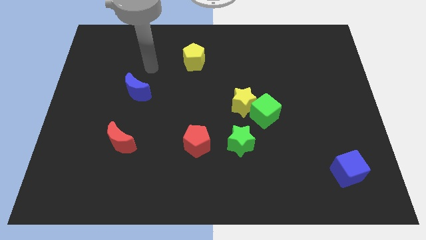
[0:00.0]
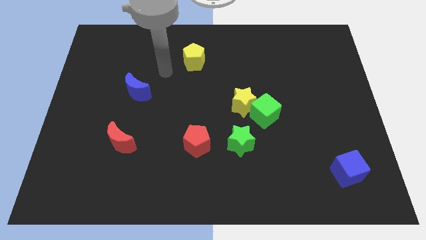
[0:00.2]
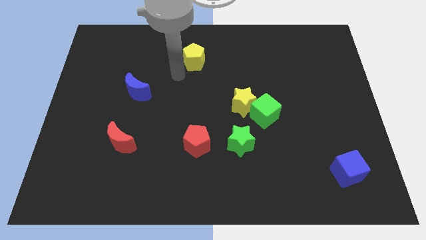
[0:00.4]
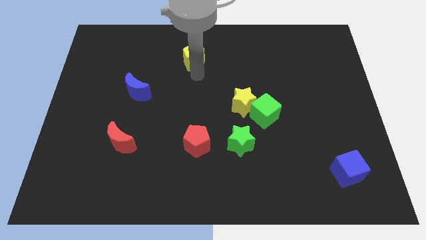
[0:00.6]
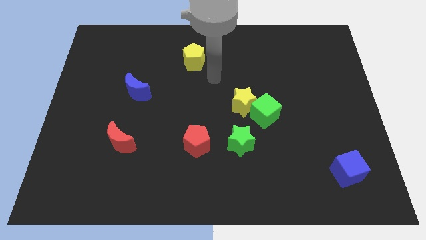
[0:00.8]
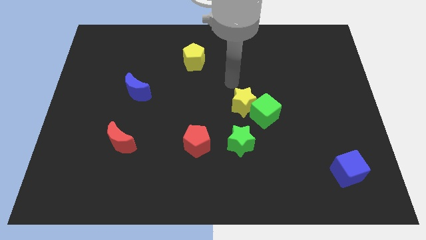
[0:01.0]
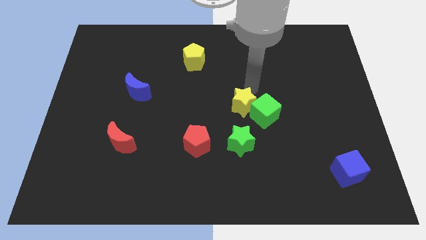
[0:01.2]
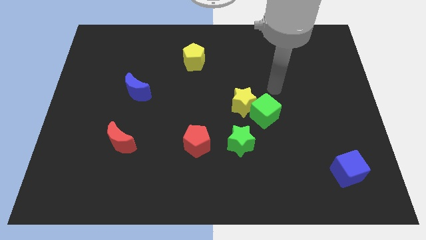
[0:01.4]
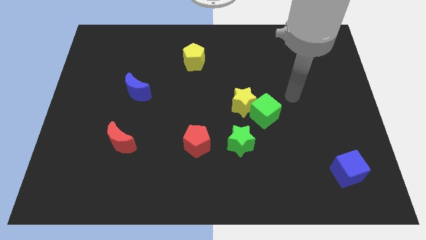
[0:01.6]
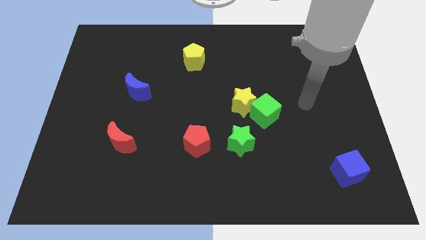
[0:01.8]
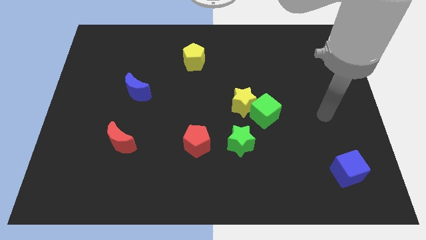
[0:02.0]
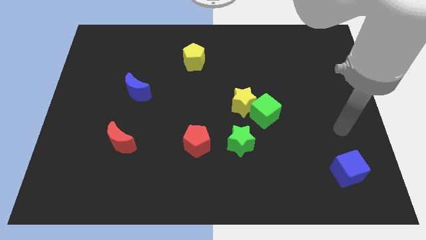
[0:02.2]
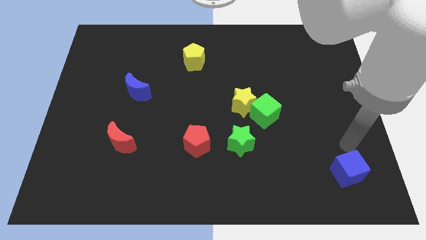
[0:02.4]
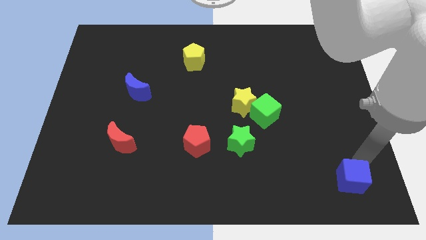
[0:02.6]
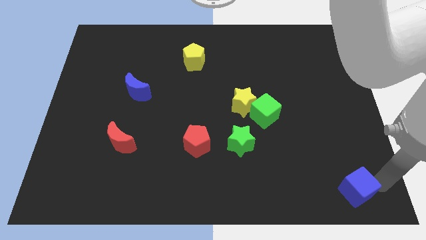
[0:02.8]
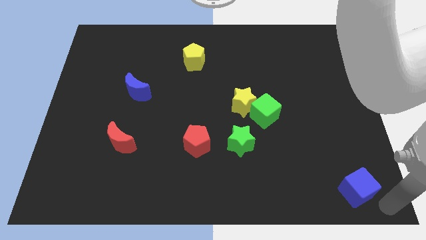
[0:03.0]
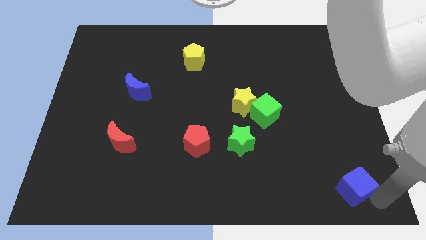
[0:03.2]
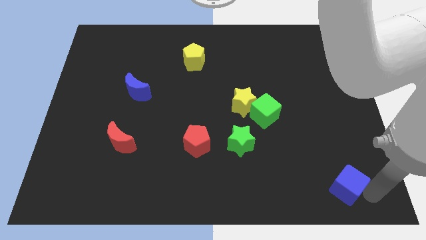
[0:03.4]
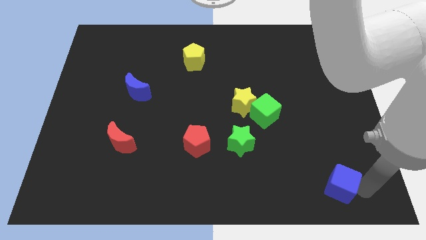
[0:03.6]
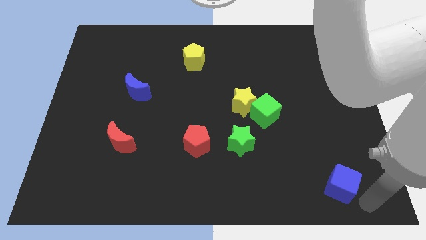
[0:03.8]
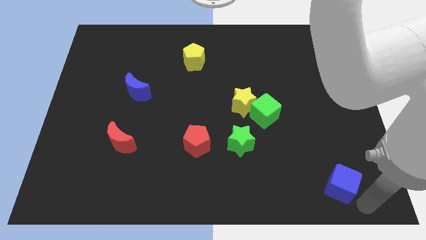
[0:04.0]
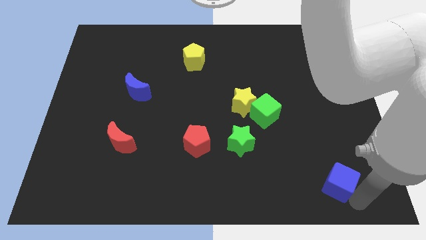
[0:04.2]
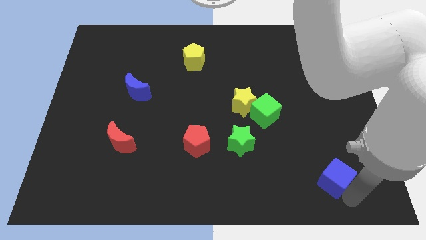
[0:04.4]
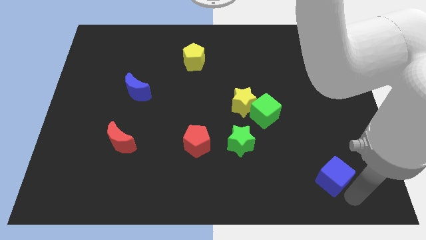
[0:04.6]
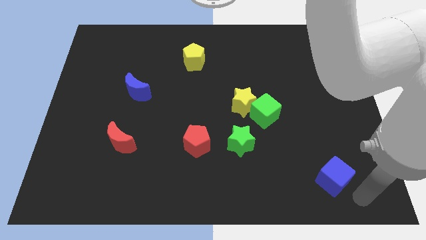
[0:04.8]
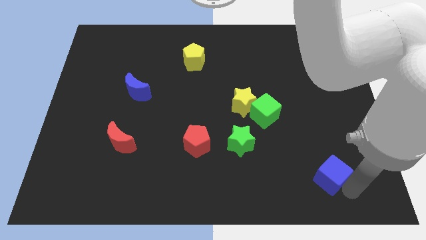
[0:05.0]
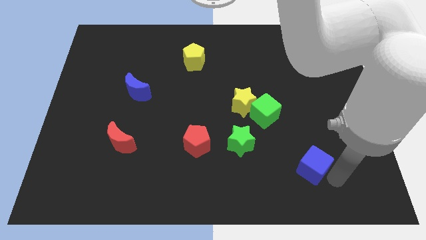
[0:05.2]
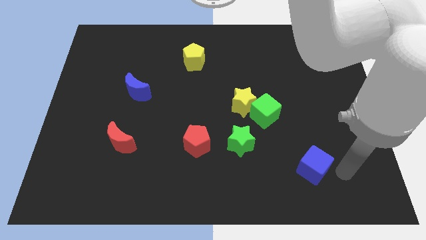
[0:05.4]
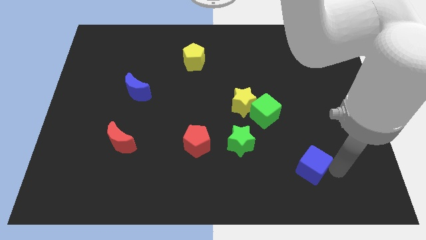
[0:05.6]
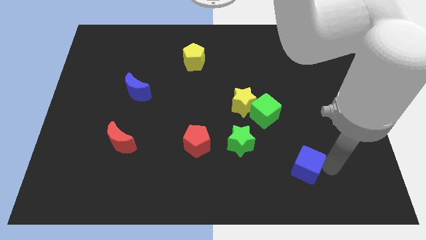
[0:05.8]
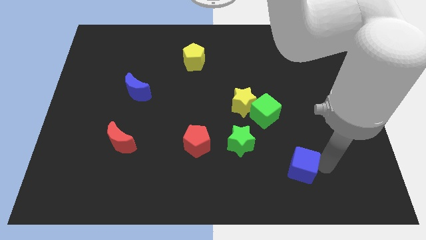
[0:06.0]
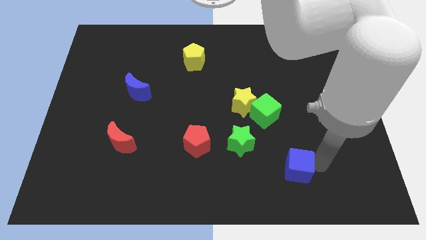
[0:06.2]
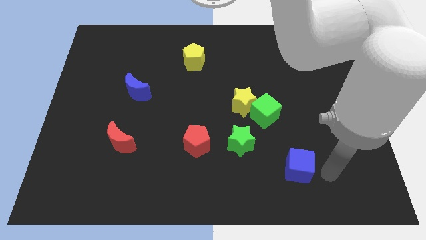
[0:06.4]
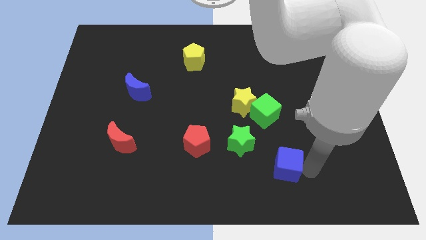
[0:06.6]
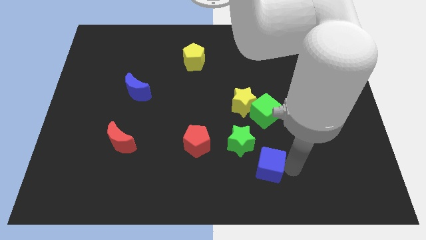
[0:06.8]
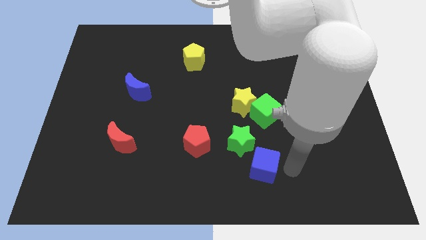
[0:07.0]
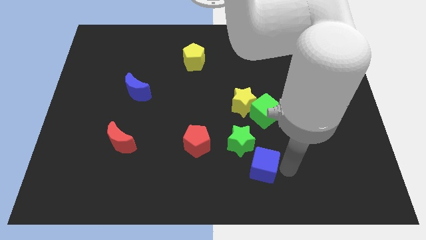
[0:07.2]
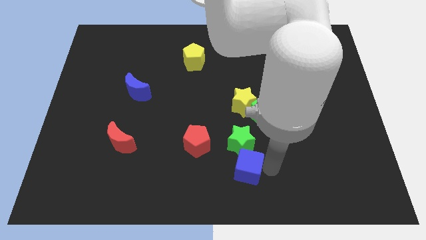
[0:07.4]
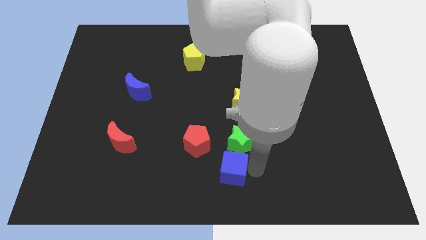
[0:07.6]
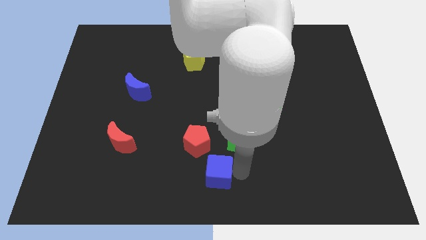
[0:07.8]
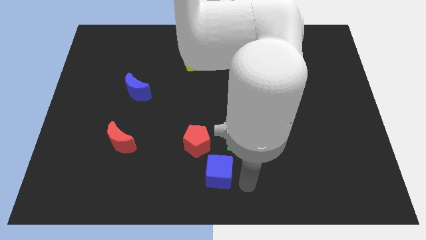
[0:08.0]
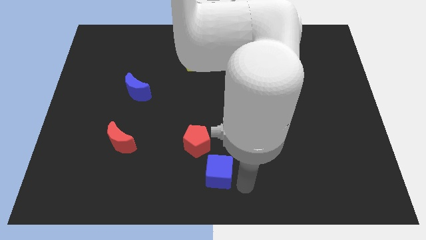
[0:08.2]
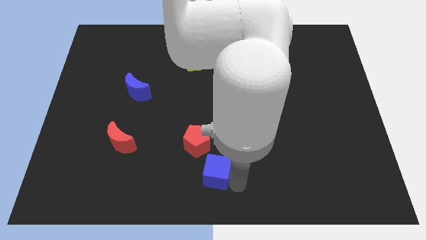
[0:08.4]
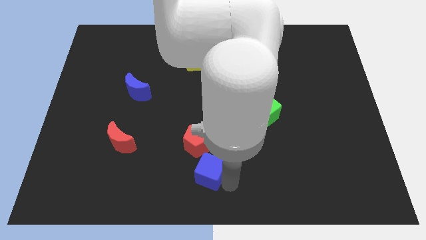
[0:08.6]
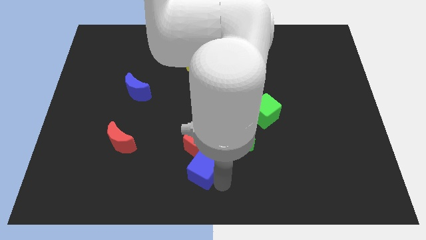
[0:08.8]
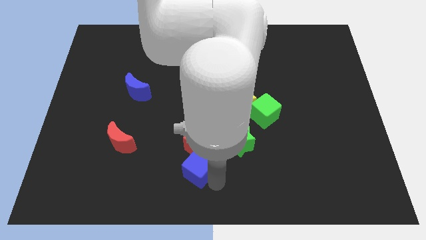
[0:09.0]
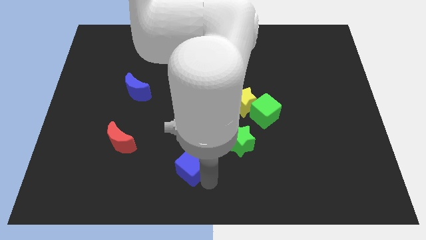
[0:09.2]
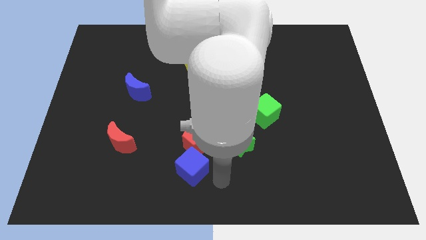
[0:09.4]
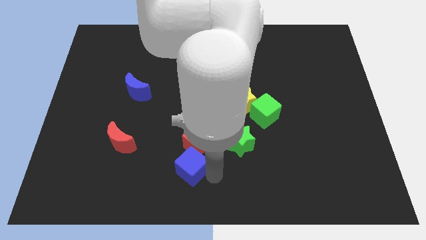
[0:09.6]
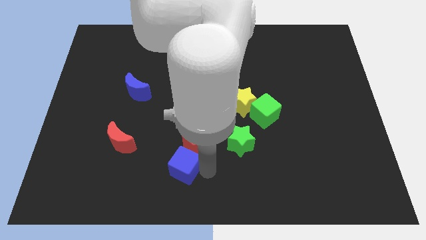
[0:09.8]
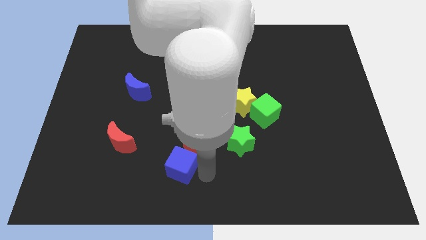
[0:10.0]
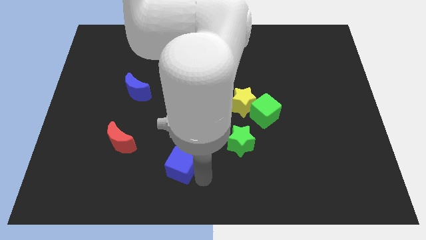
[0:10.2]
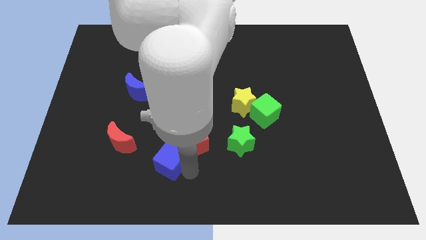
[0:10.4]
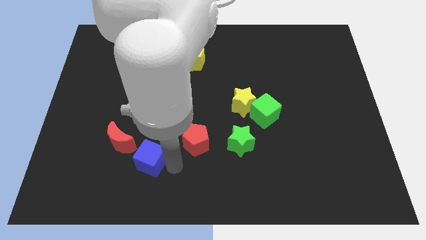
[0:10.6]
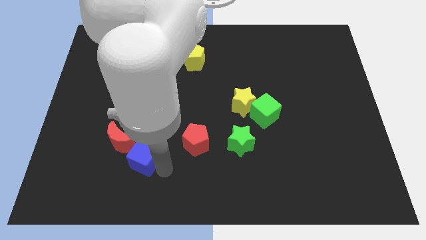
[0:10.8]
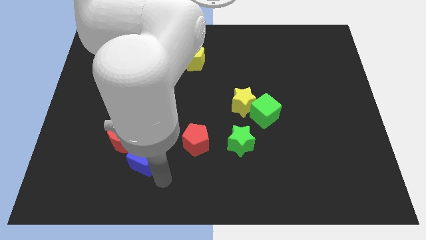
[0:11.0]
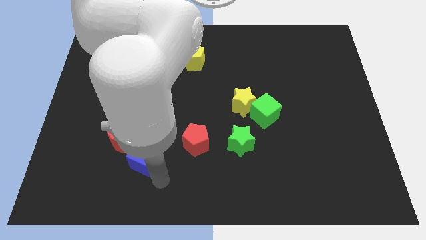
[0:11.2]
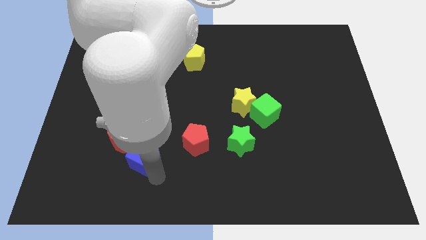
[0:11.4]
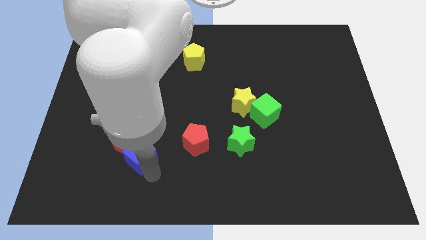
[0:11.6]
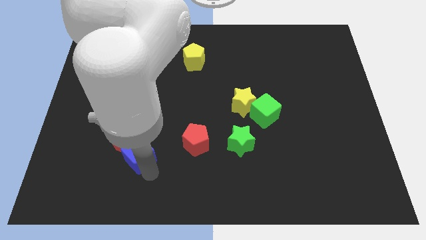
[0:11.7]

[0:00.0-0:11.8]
put the blue cube next to the red moon

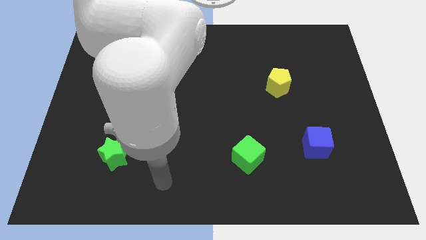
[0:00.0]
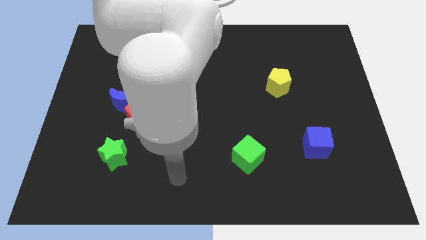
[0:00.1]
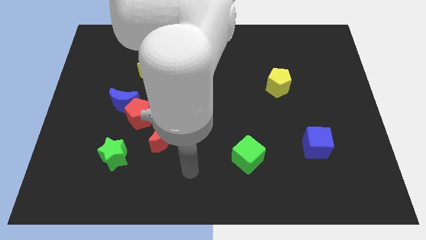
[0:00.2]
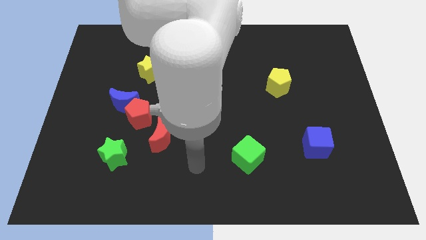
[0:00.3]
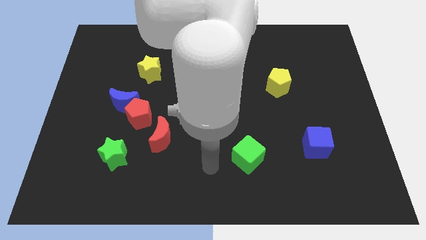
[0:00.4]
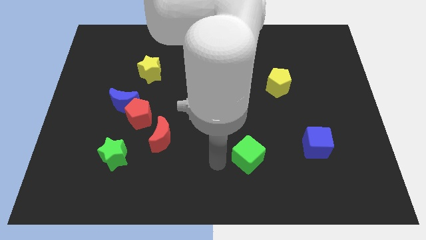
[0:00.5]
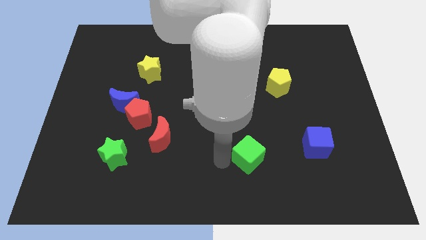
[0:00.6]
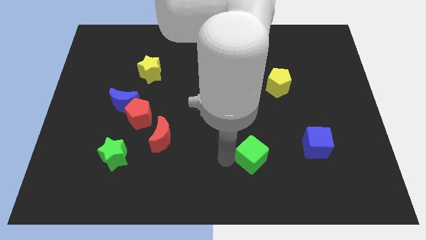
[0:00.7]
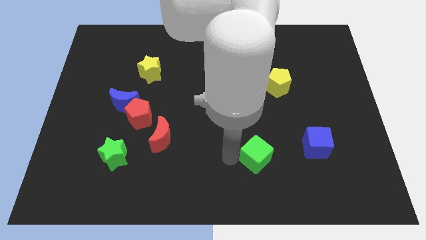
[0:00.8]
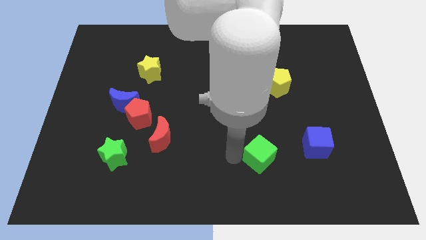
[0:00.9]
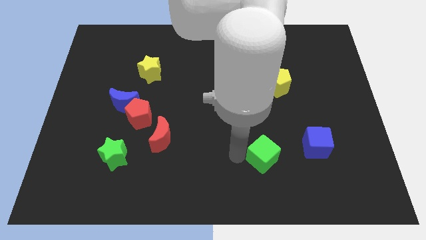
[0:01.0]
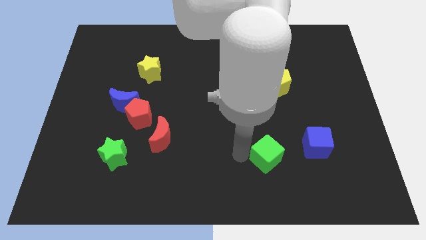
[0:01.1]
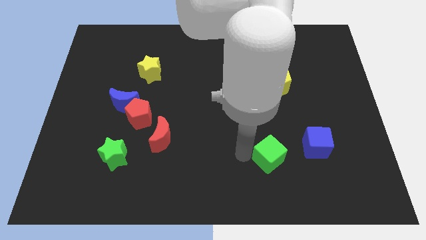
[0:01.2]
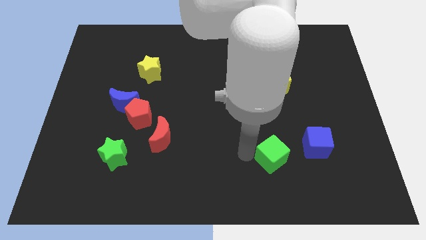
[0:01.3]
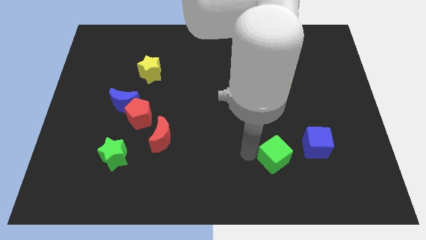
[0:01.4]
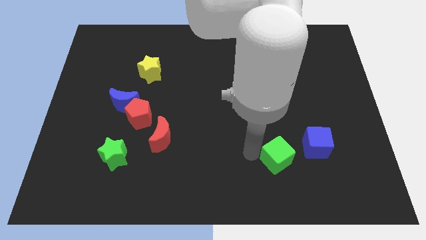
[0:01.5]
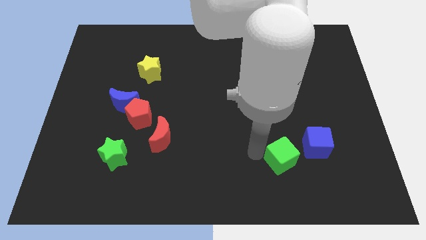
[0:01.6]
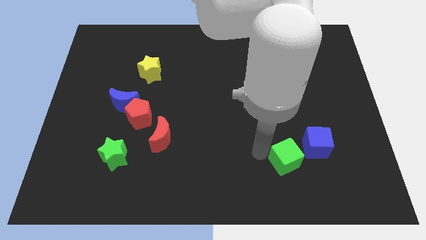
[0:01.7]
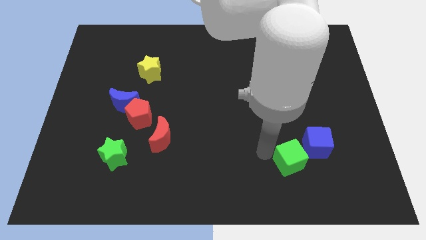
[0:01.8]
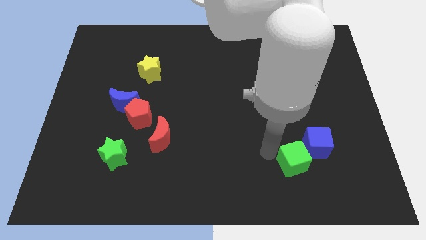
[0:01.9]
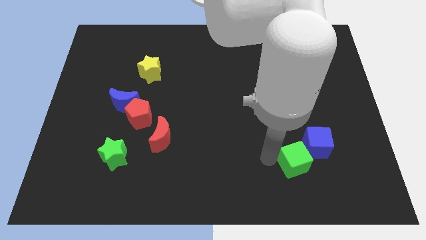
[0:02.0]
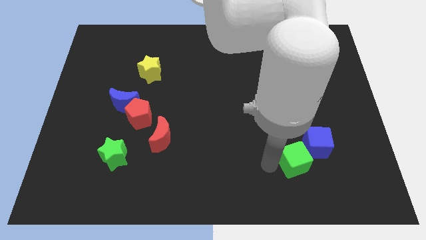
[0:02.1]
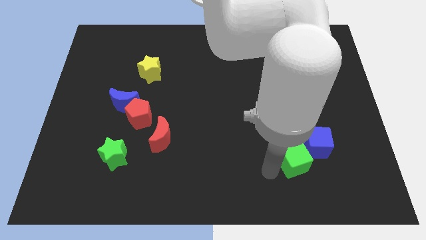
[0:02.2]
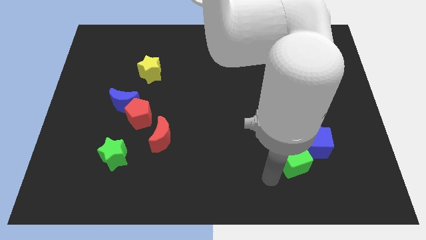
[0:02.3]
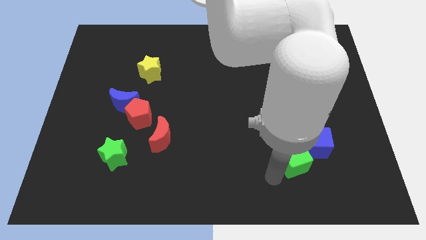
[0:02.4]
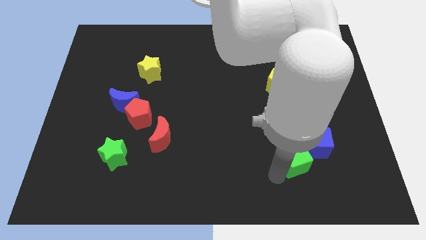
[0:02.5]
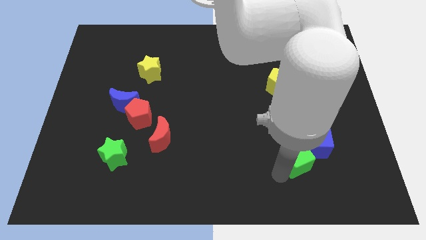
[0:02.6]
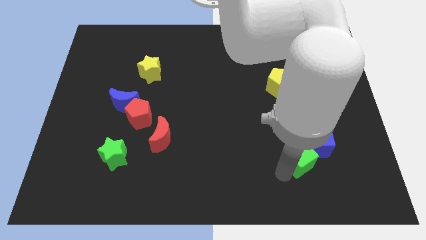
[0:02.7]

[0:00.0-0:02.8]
move the green cube next to the blue cube
